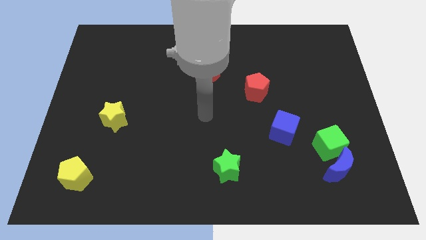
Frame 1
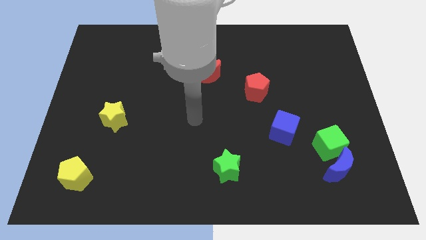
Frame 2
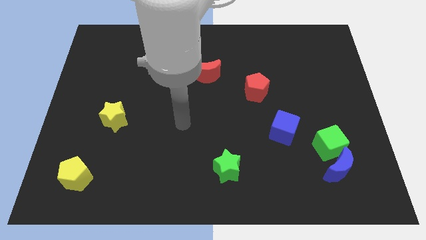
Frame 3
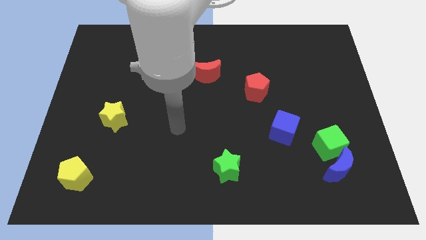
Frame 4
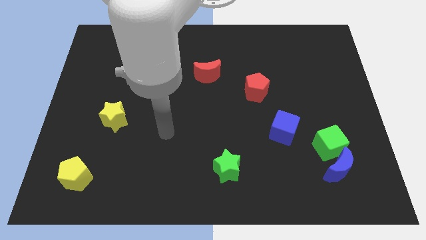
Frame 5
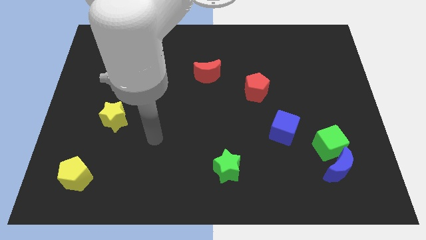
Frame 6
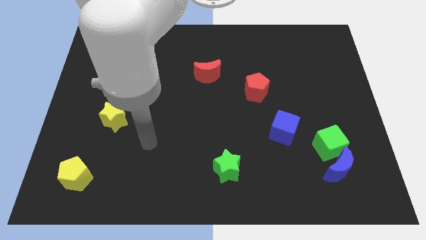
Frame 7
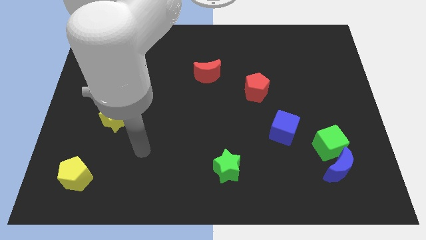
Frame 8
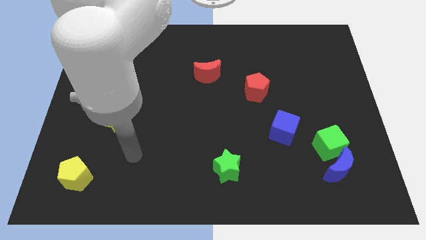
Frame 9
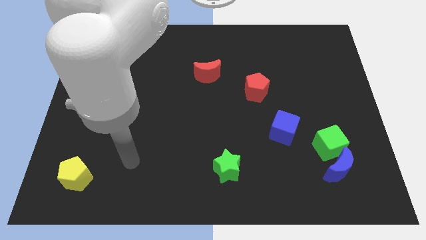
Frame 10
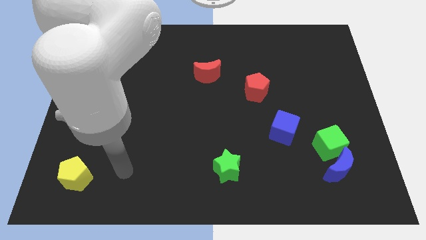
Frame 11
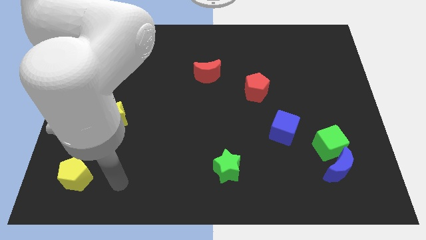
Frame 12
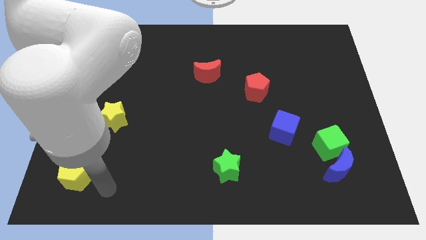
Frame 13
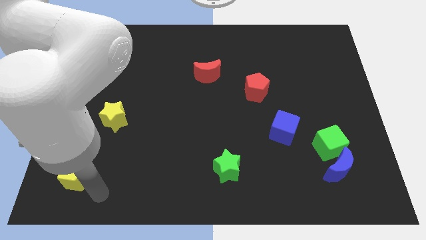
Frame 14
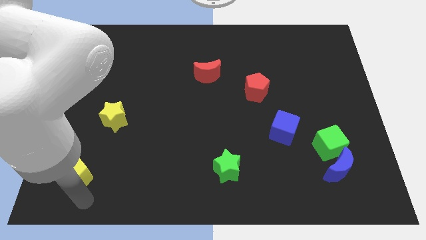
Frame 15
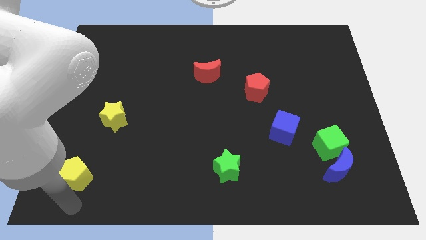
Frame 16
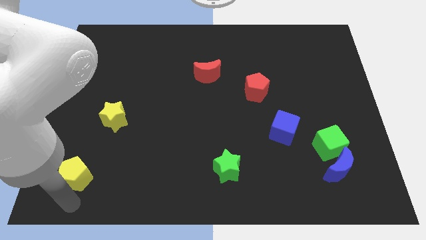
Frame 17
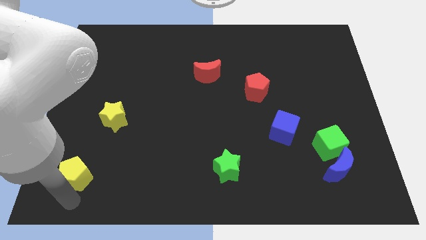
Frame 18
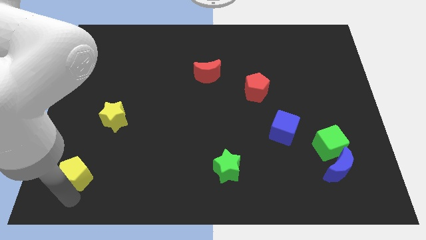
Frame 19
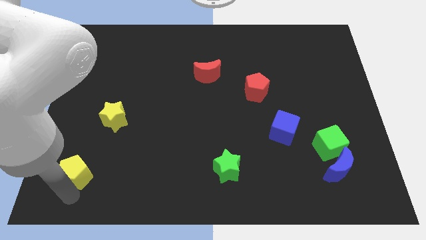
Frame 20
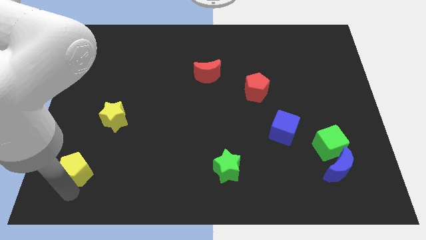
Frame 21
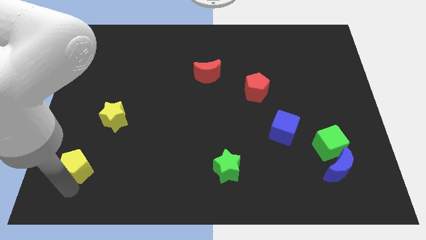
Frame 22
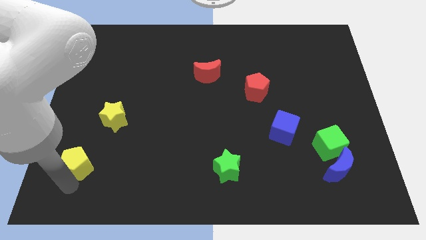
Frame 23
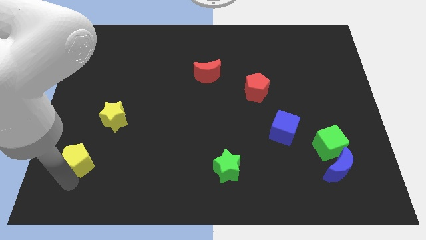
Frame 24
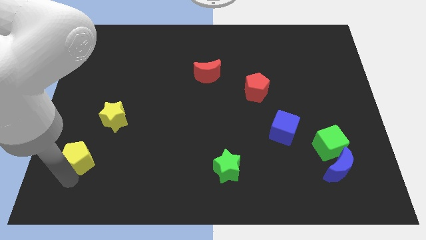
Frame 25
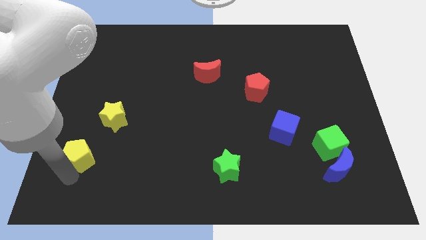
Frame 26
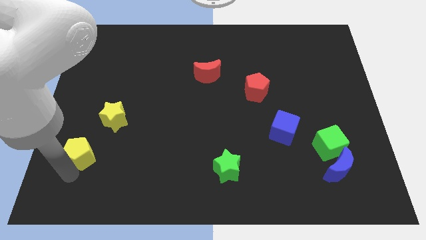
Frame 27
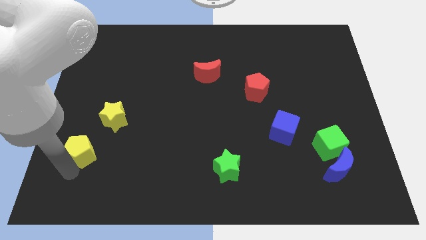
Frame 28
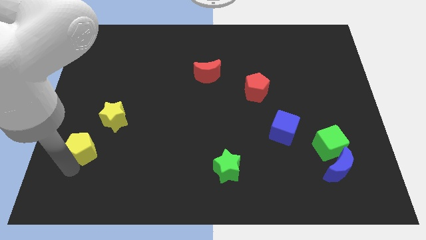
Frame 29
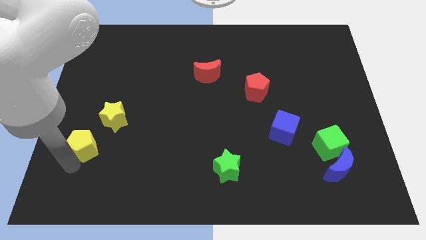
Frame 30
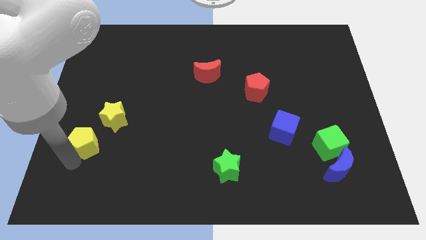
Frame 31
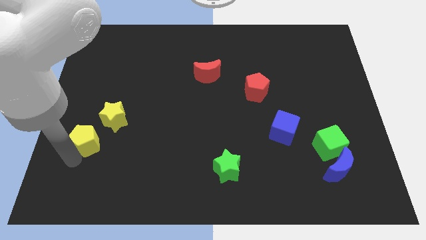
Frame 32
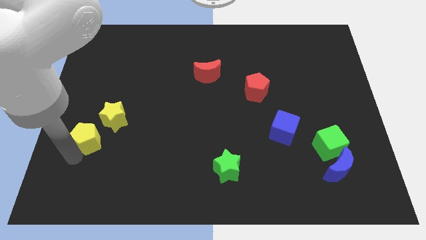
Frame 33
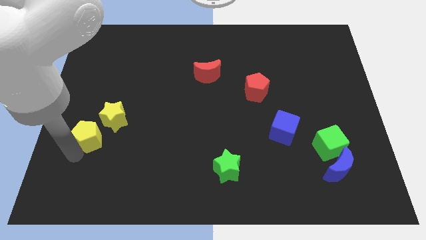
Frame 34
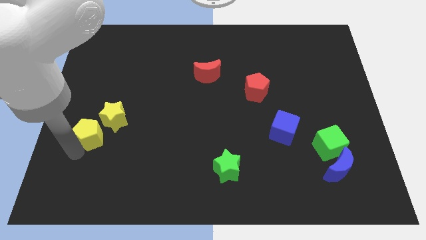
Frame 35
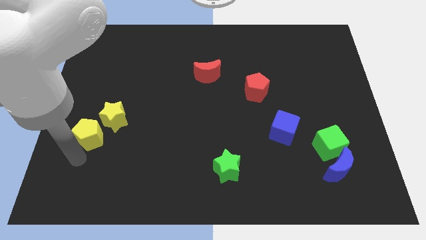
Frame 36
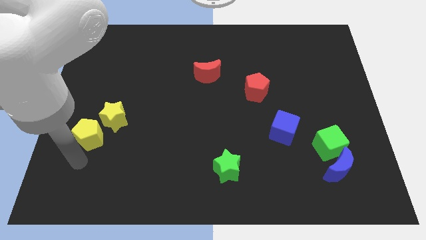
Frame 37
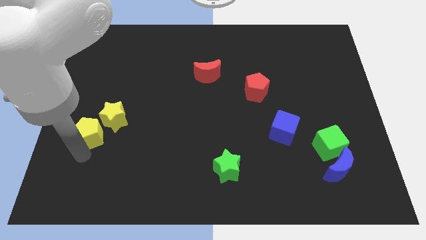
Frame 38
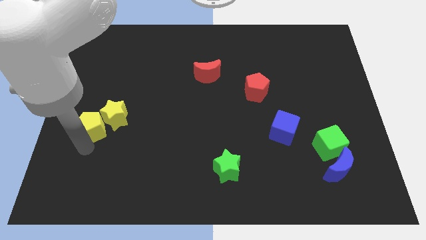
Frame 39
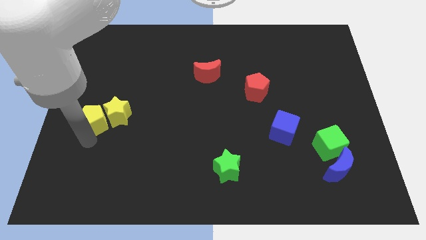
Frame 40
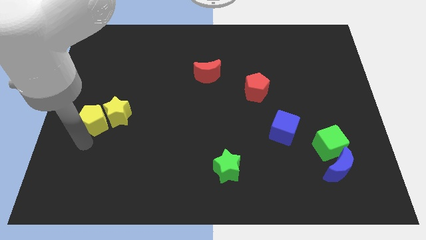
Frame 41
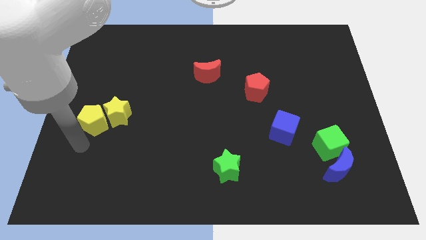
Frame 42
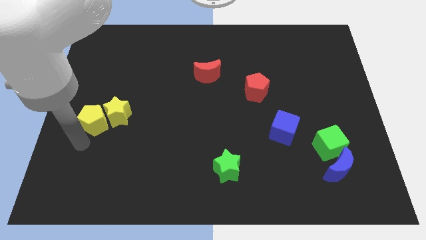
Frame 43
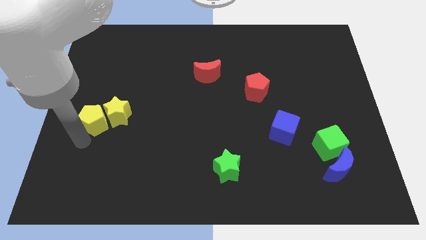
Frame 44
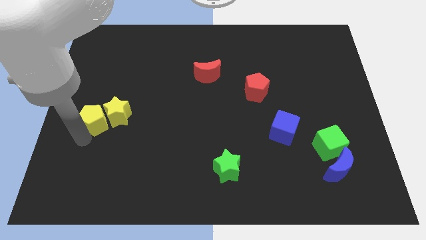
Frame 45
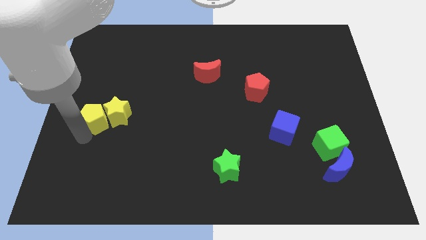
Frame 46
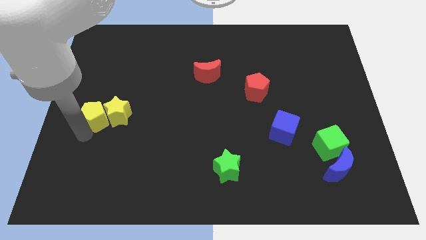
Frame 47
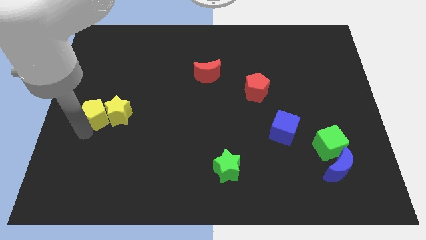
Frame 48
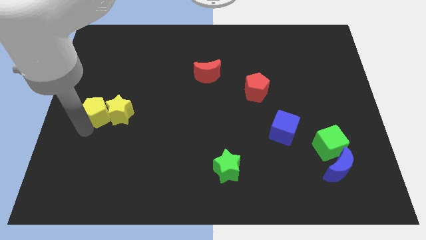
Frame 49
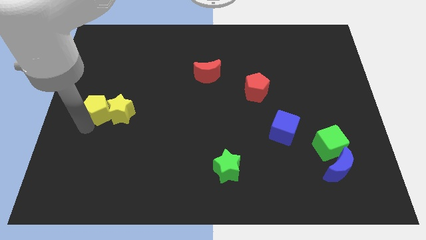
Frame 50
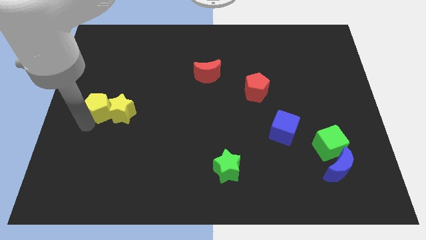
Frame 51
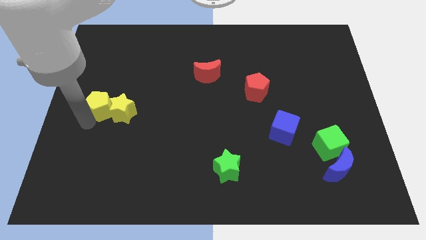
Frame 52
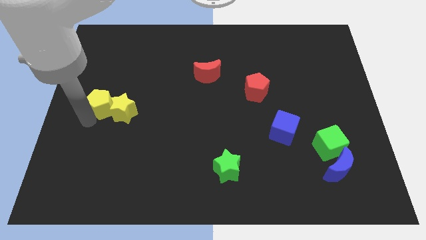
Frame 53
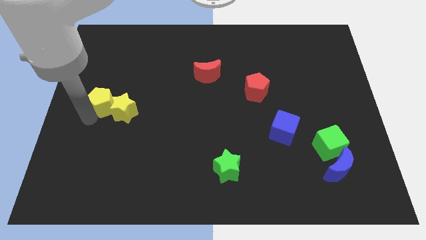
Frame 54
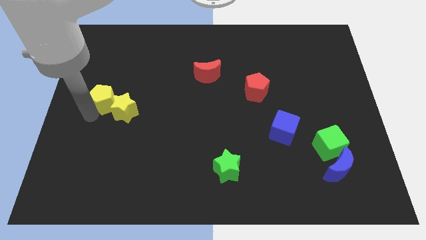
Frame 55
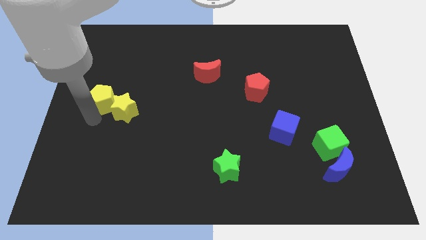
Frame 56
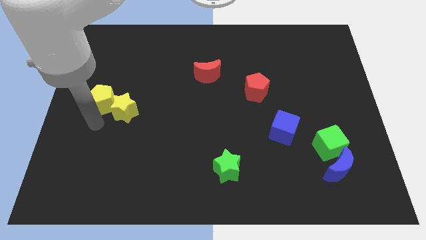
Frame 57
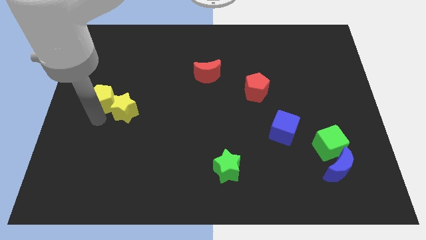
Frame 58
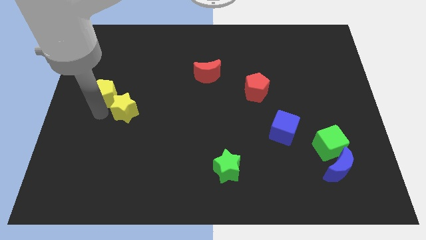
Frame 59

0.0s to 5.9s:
move the yellow pentagon up

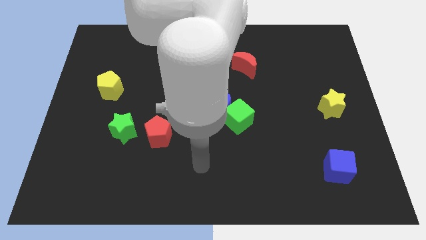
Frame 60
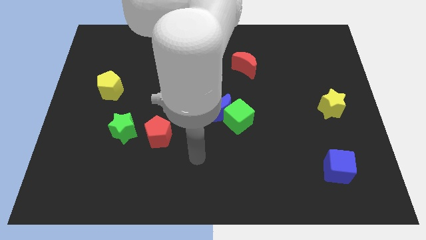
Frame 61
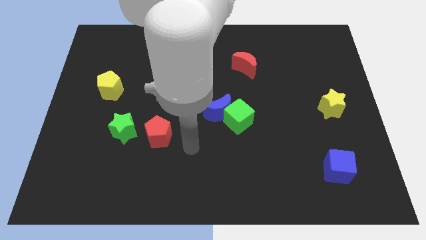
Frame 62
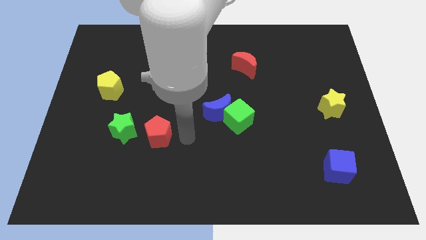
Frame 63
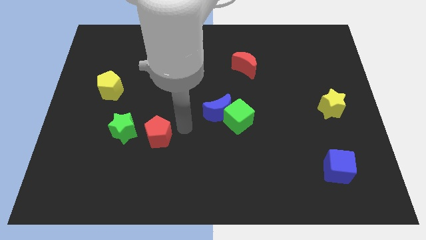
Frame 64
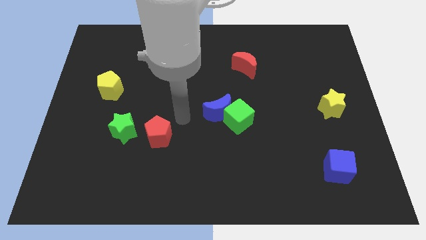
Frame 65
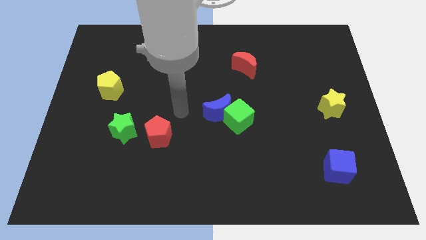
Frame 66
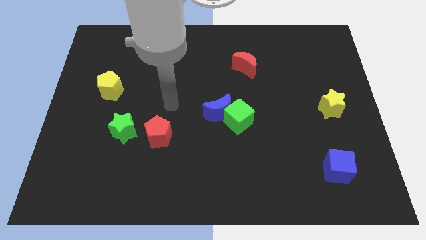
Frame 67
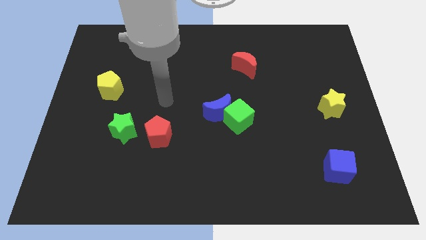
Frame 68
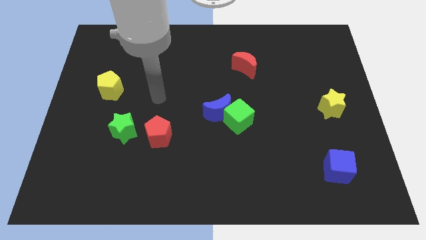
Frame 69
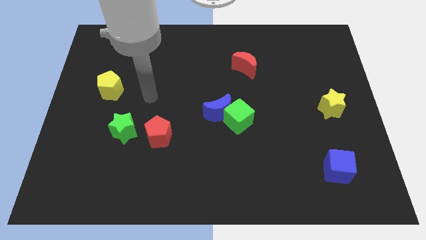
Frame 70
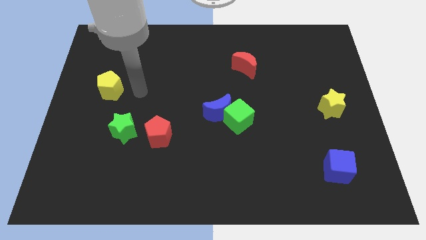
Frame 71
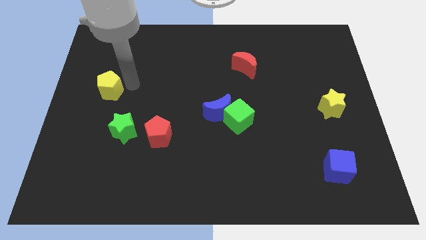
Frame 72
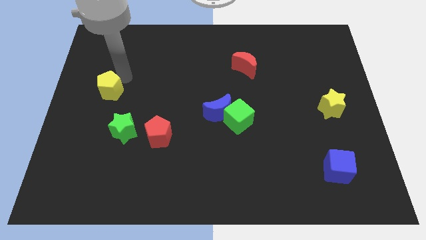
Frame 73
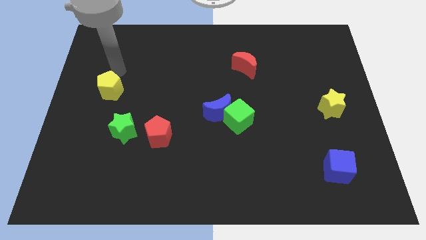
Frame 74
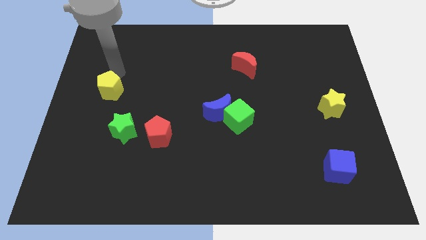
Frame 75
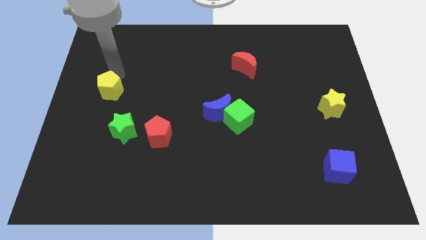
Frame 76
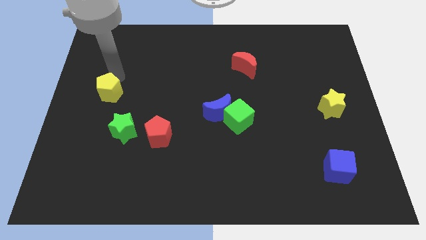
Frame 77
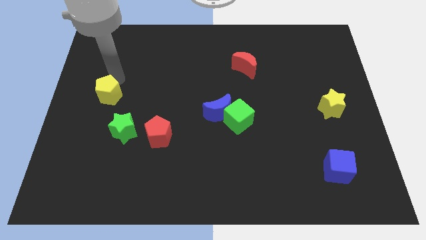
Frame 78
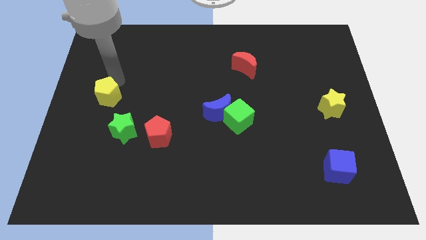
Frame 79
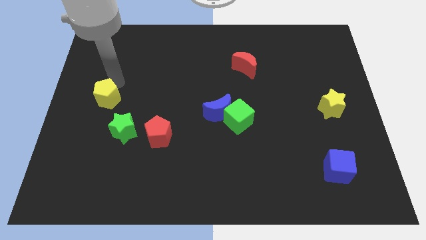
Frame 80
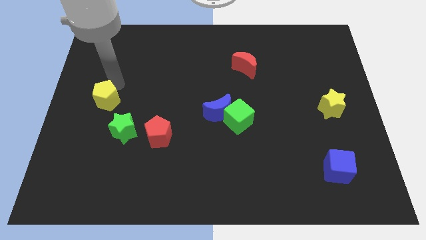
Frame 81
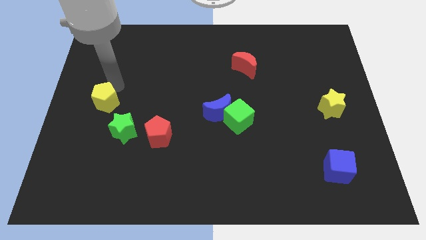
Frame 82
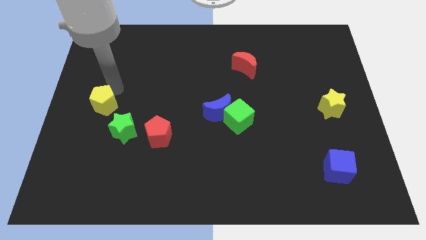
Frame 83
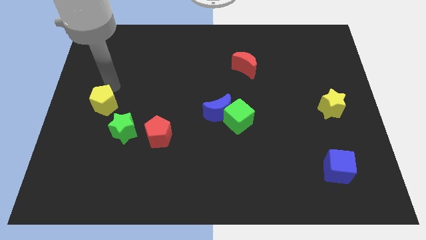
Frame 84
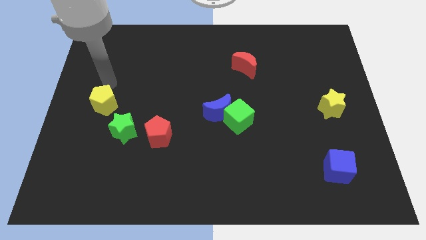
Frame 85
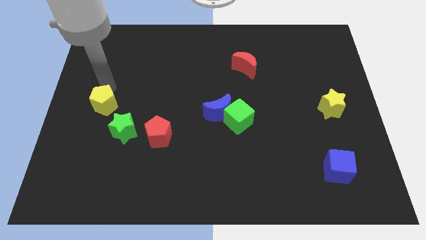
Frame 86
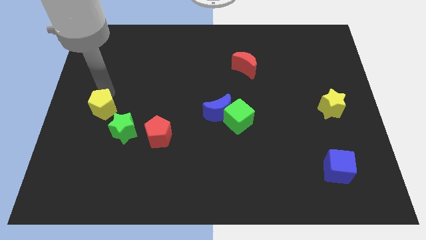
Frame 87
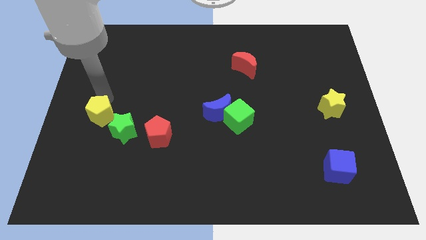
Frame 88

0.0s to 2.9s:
slide the yellow pentagon slightly downwards
